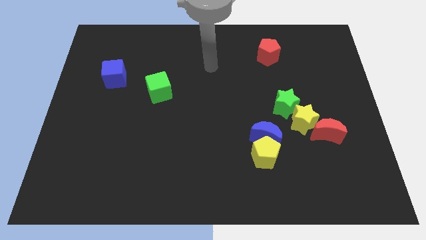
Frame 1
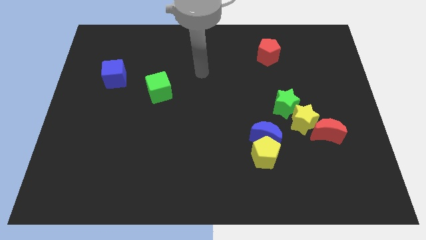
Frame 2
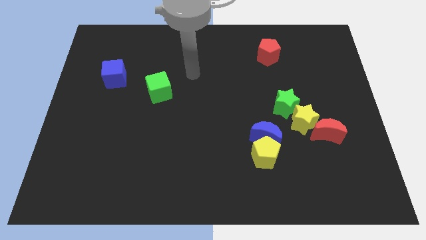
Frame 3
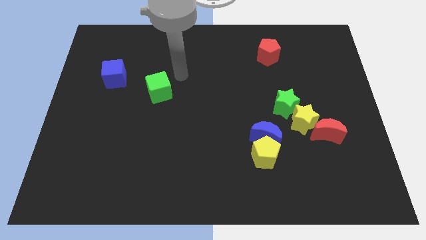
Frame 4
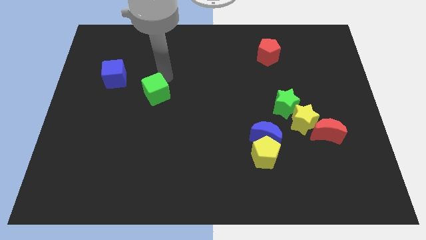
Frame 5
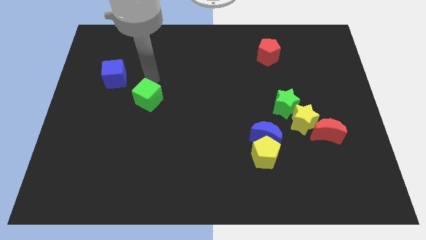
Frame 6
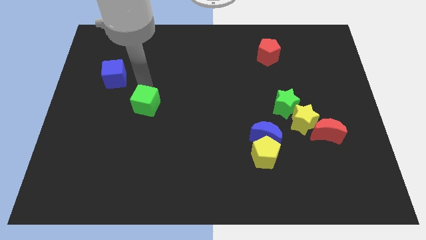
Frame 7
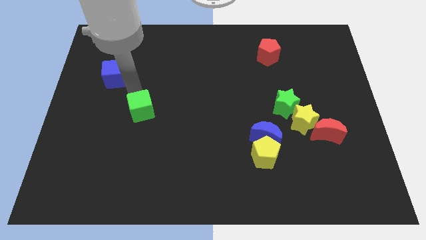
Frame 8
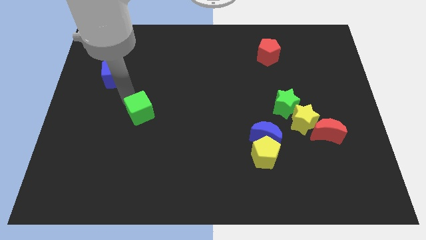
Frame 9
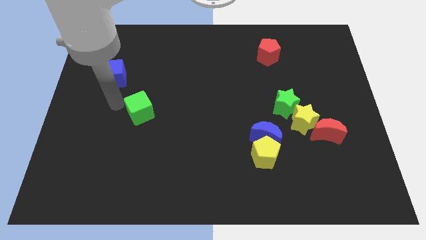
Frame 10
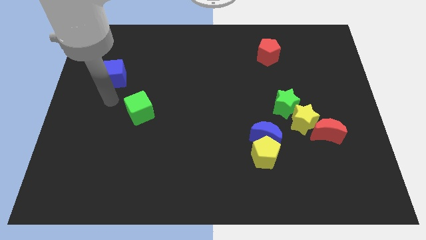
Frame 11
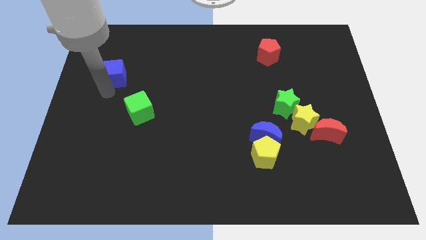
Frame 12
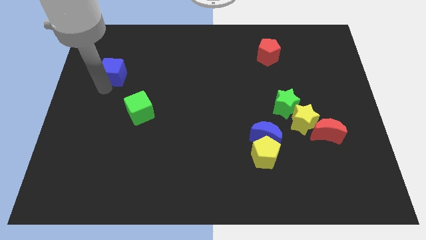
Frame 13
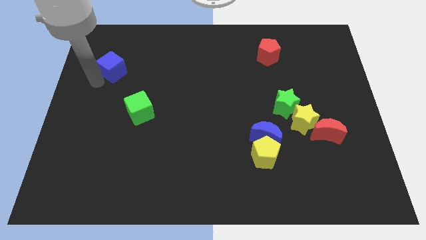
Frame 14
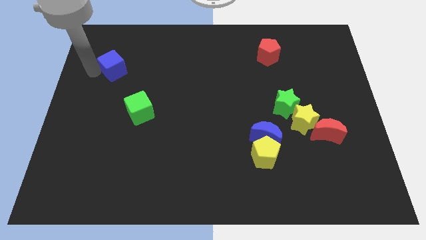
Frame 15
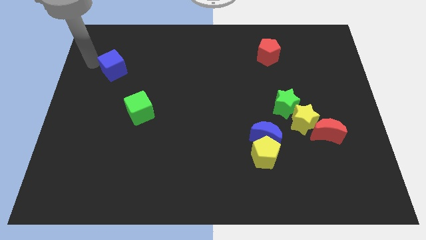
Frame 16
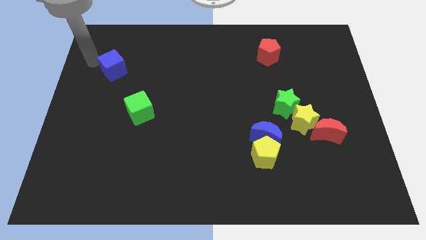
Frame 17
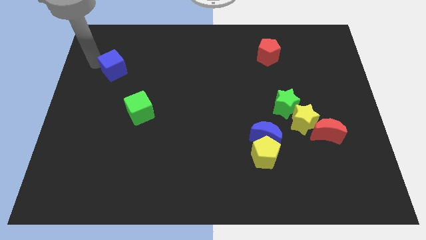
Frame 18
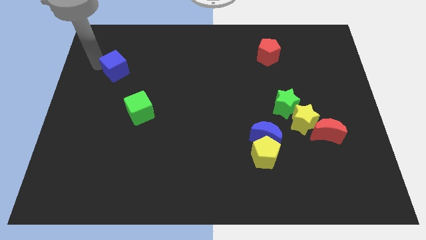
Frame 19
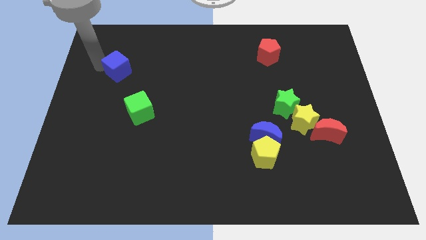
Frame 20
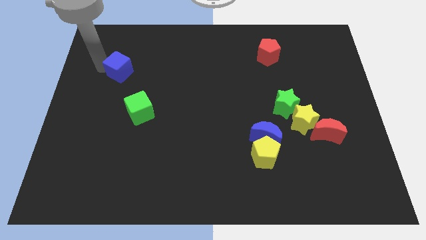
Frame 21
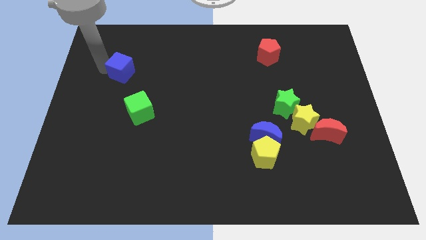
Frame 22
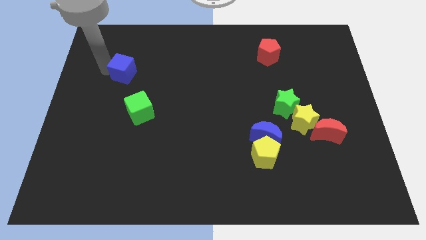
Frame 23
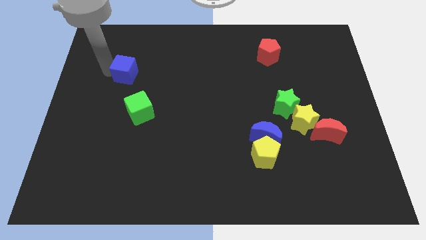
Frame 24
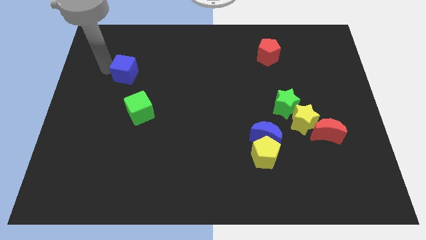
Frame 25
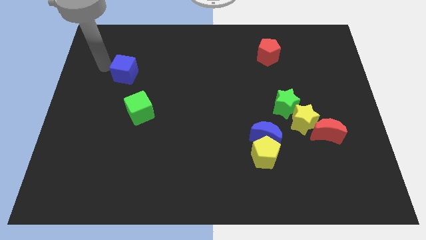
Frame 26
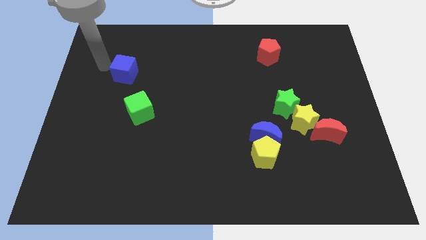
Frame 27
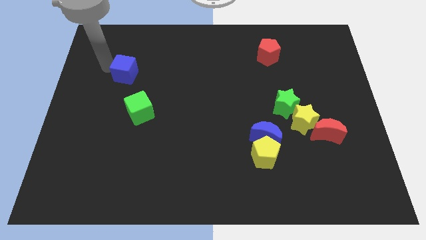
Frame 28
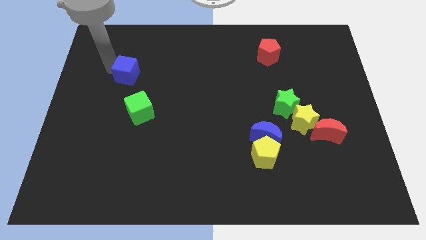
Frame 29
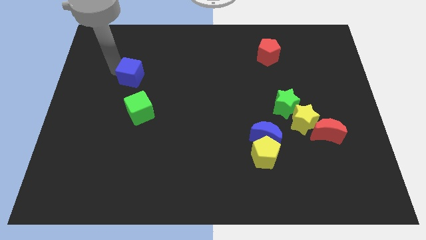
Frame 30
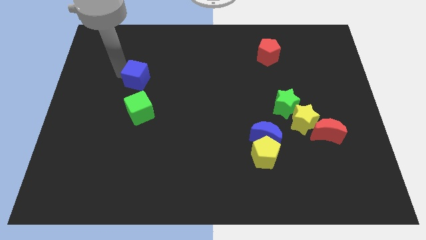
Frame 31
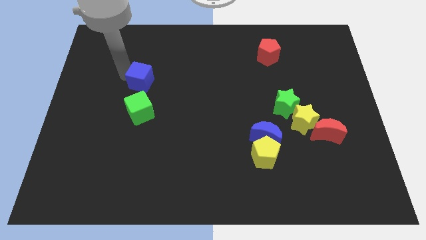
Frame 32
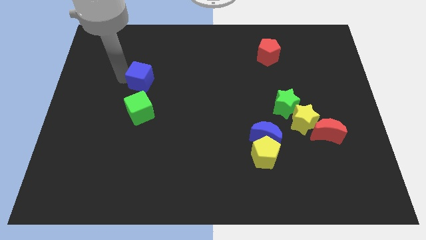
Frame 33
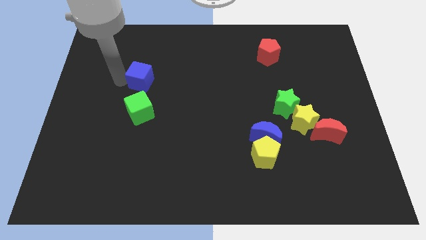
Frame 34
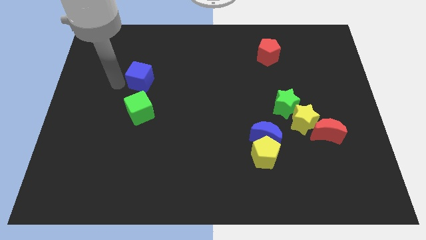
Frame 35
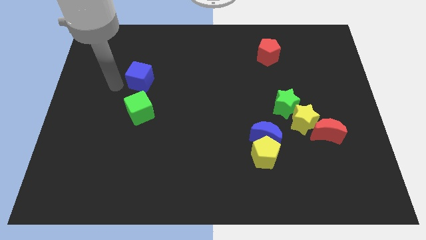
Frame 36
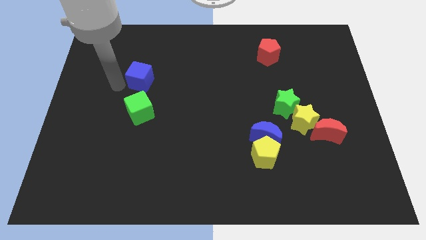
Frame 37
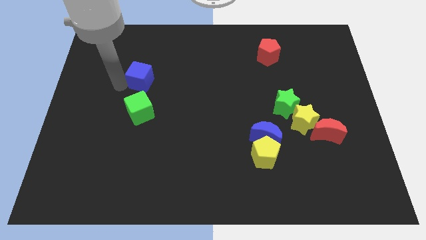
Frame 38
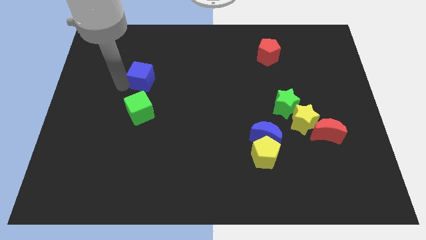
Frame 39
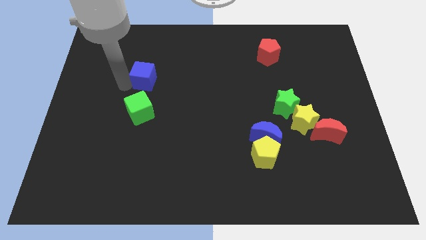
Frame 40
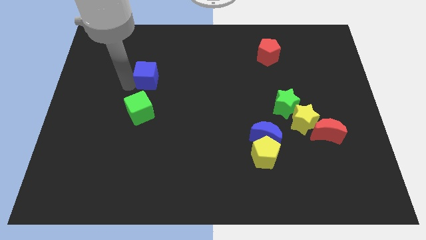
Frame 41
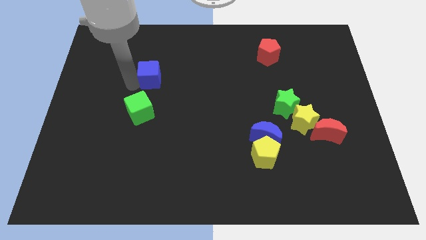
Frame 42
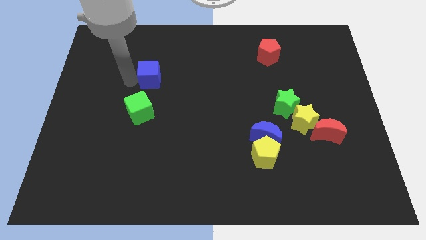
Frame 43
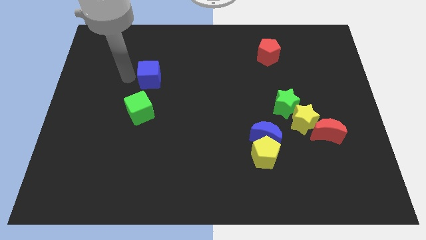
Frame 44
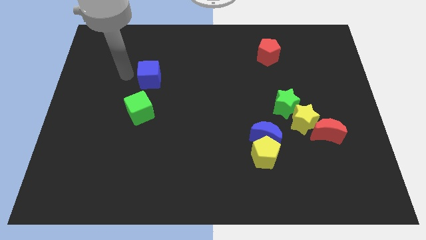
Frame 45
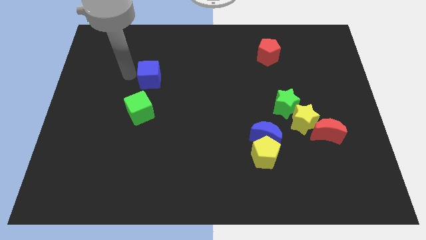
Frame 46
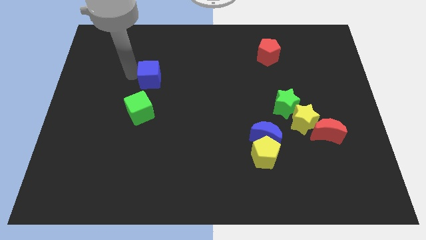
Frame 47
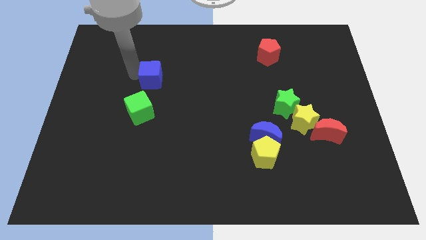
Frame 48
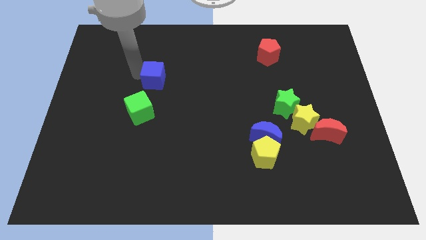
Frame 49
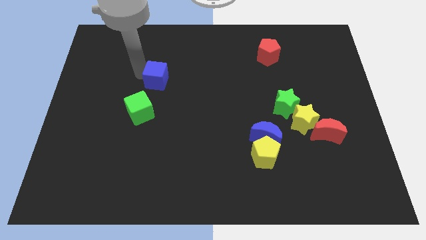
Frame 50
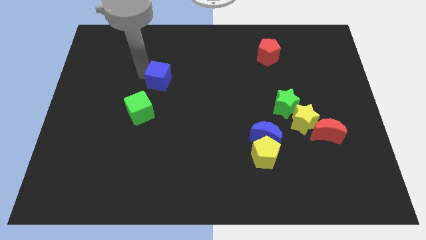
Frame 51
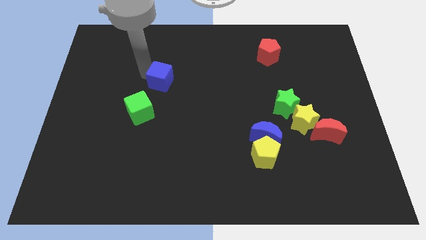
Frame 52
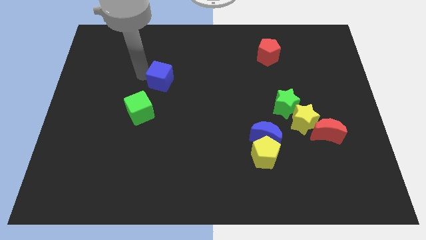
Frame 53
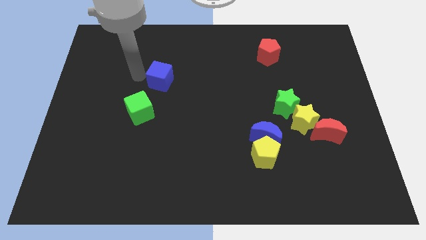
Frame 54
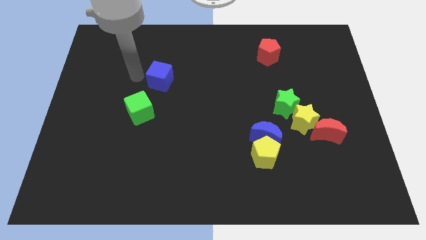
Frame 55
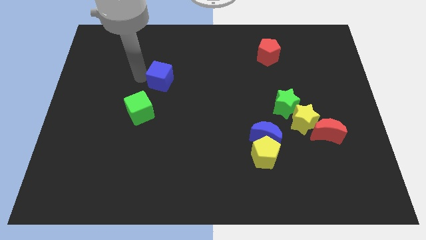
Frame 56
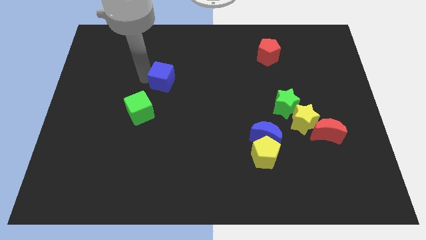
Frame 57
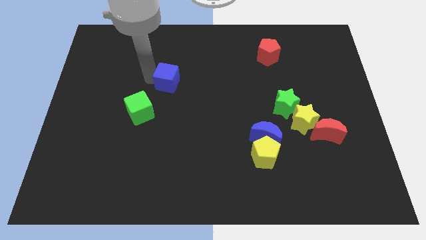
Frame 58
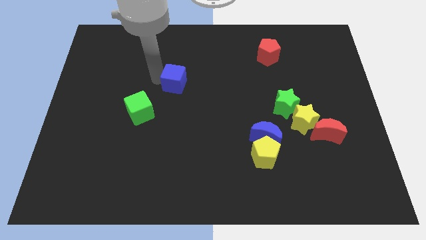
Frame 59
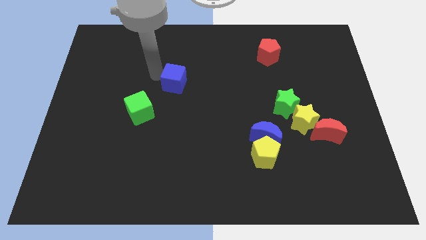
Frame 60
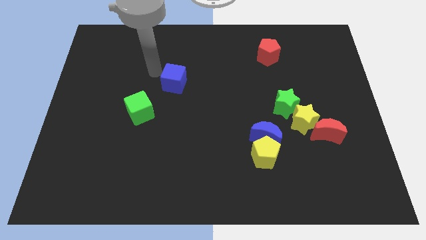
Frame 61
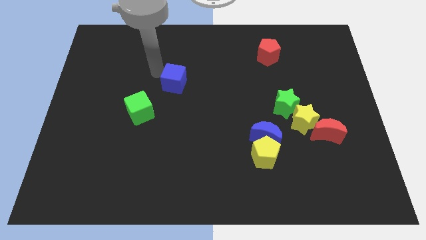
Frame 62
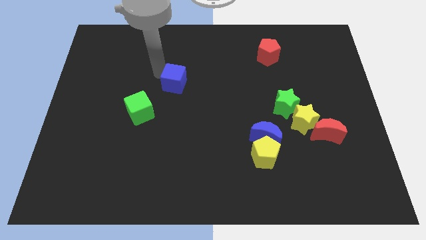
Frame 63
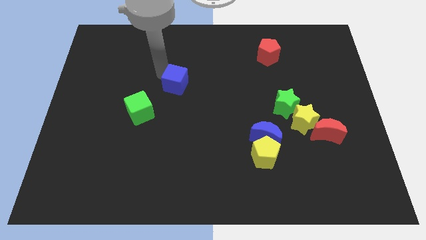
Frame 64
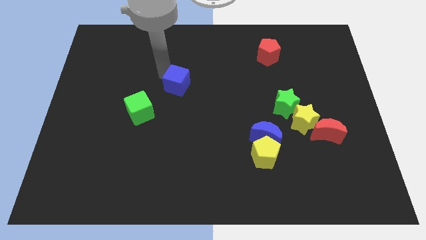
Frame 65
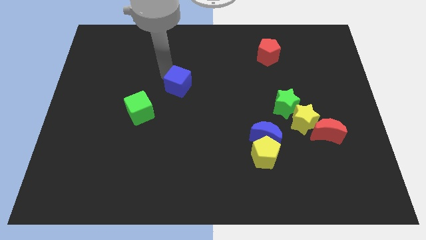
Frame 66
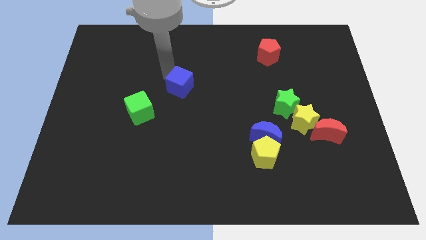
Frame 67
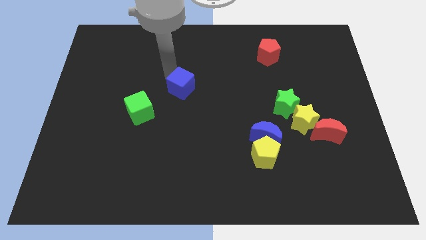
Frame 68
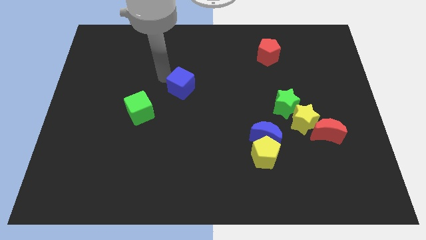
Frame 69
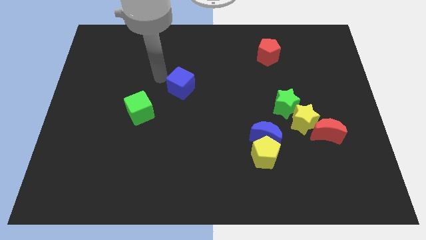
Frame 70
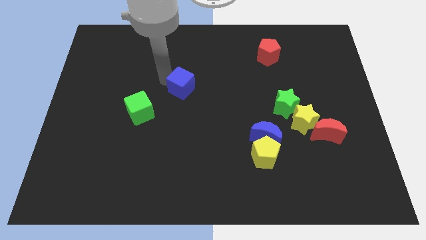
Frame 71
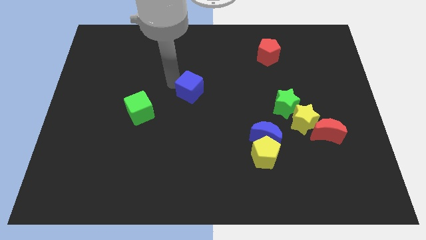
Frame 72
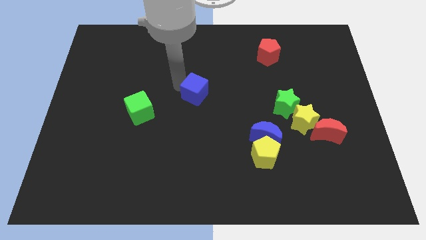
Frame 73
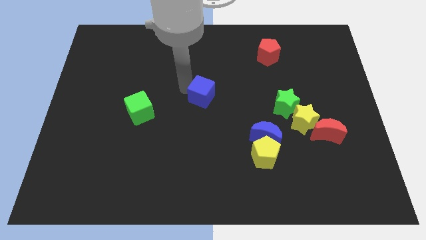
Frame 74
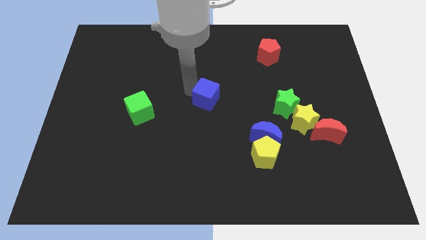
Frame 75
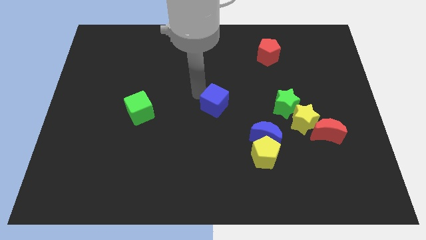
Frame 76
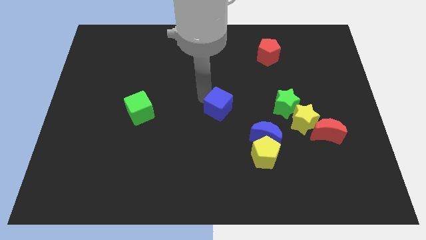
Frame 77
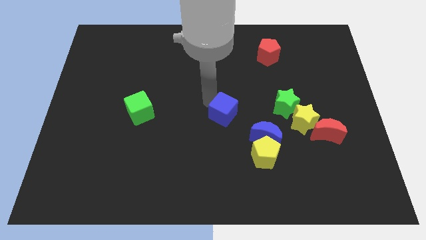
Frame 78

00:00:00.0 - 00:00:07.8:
slide the blue cube to the top left side of the blue moon
